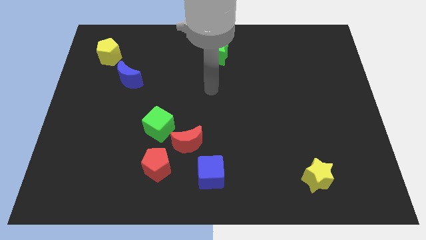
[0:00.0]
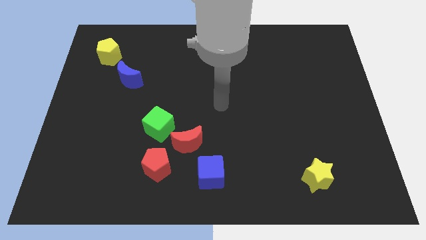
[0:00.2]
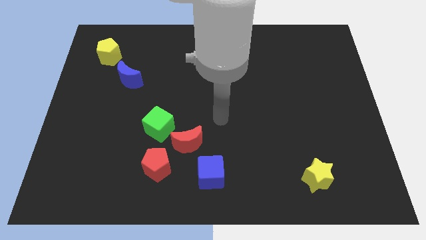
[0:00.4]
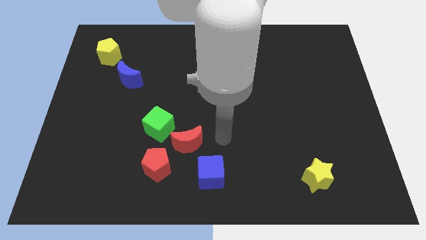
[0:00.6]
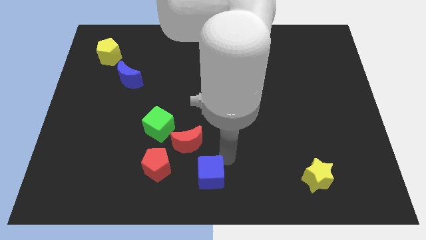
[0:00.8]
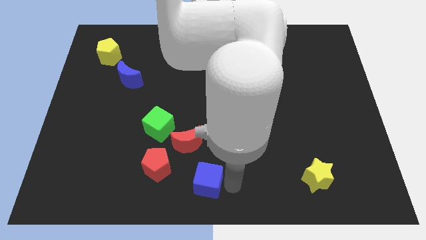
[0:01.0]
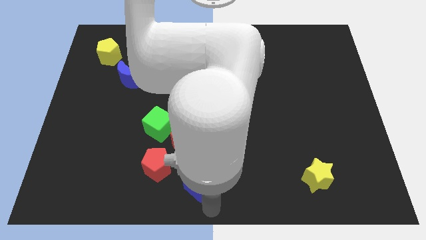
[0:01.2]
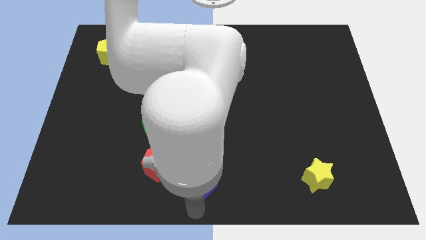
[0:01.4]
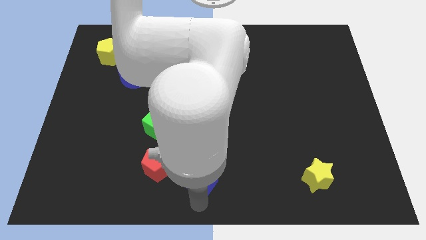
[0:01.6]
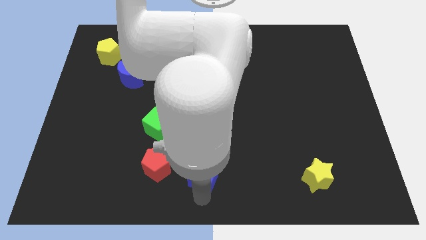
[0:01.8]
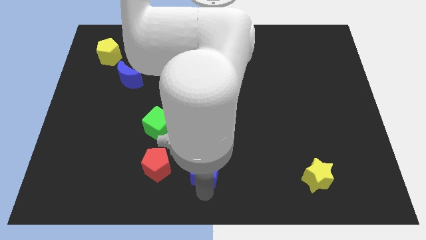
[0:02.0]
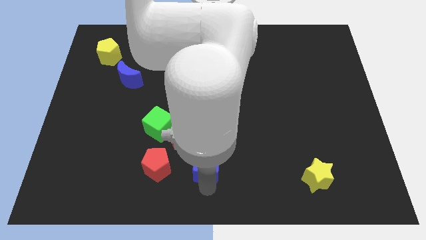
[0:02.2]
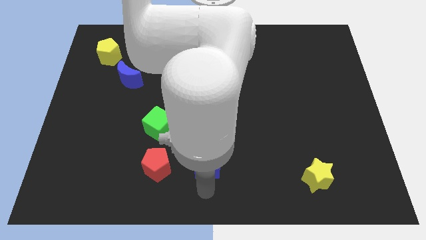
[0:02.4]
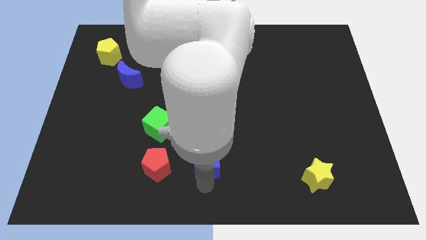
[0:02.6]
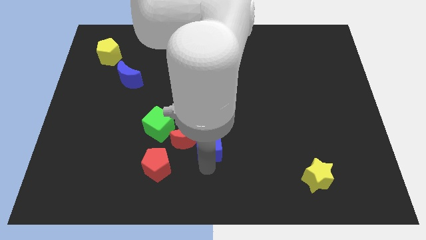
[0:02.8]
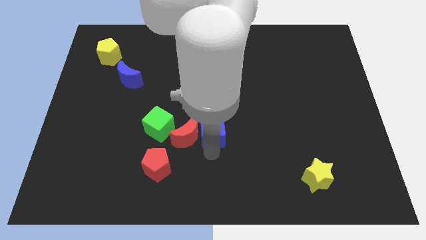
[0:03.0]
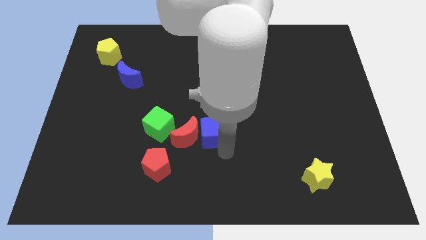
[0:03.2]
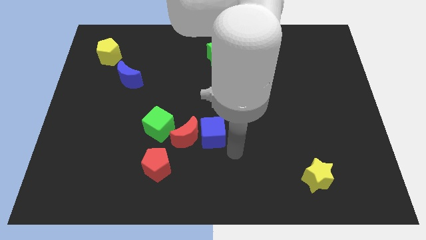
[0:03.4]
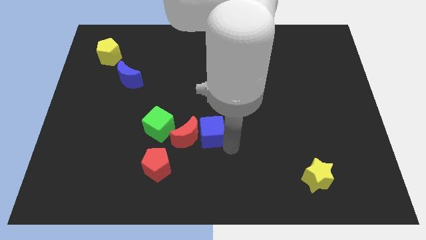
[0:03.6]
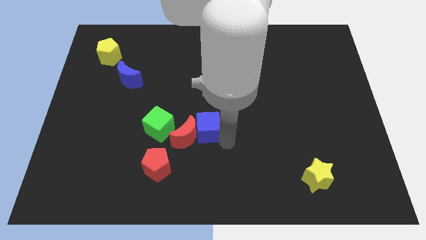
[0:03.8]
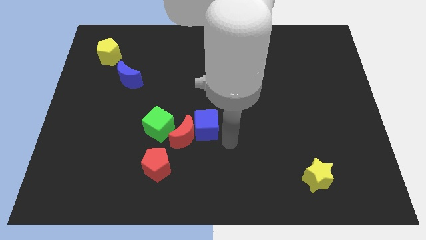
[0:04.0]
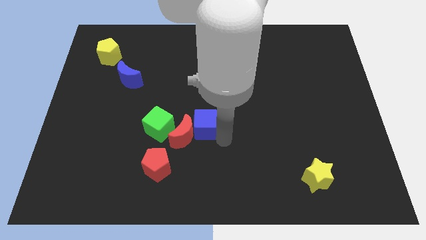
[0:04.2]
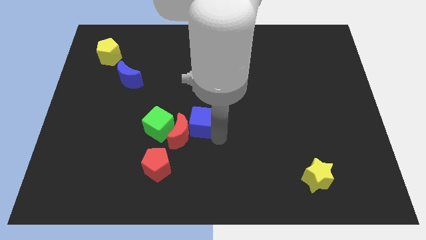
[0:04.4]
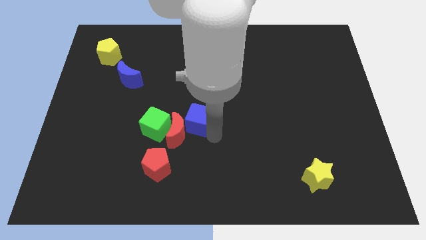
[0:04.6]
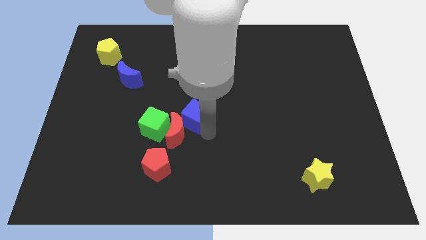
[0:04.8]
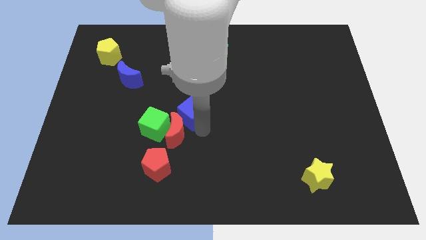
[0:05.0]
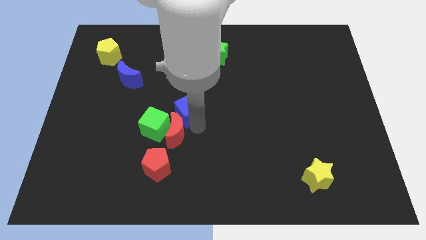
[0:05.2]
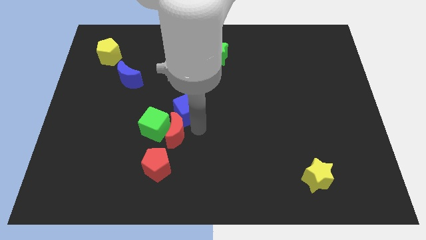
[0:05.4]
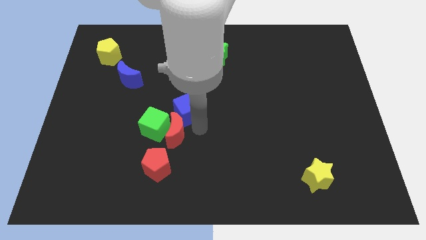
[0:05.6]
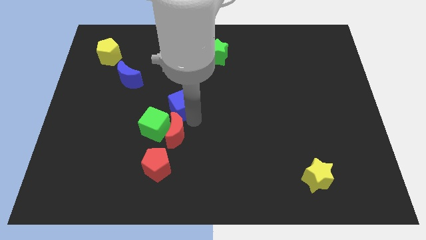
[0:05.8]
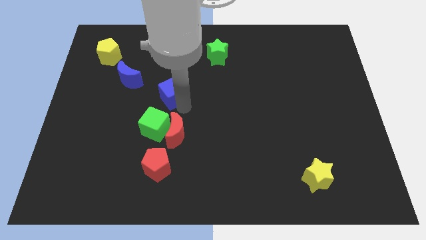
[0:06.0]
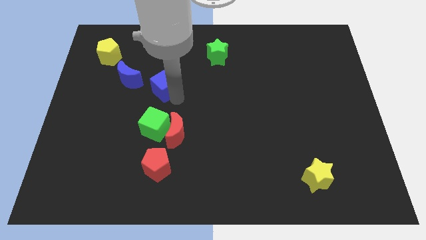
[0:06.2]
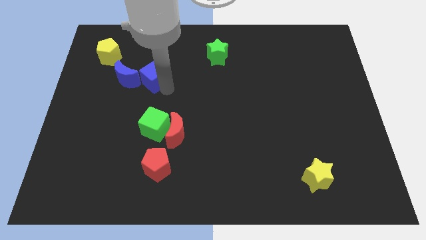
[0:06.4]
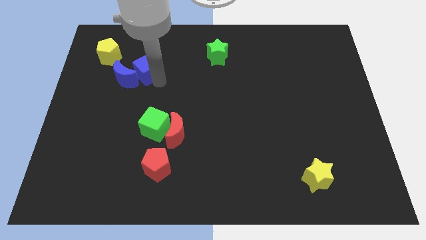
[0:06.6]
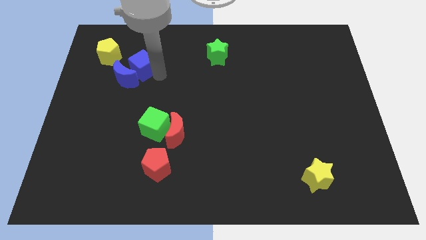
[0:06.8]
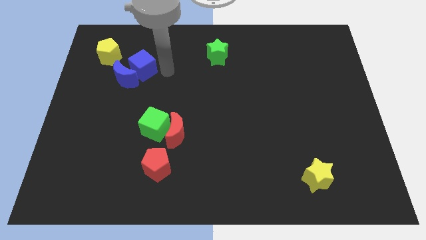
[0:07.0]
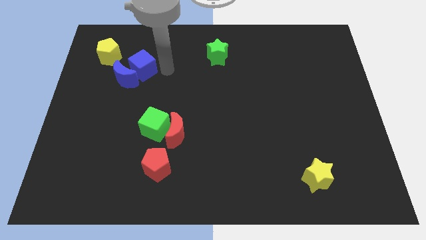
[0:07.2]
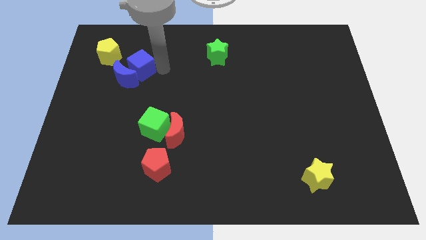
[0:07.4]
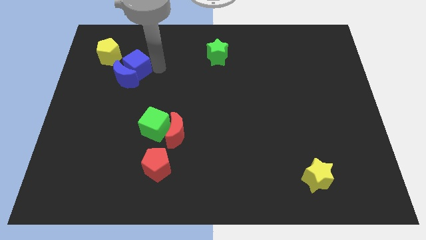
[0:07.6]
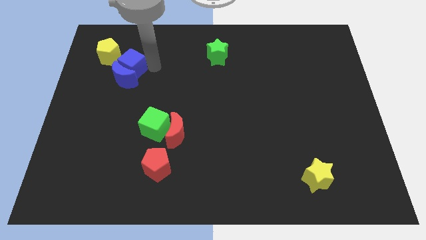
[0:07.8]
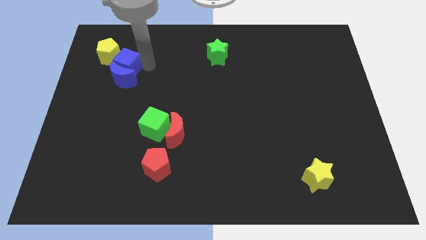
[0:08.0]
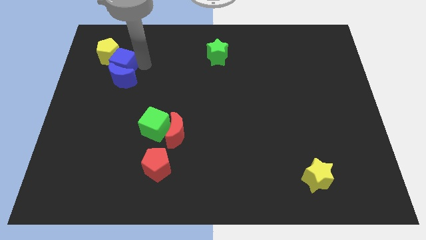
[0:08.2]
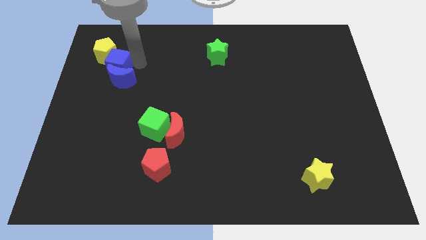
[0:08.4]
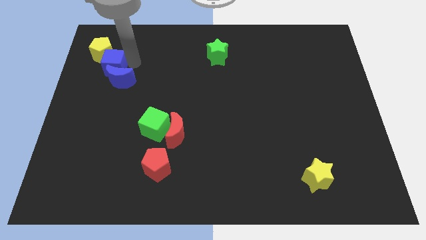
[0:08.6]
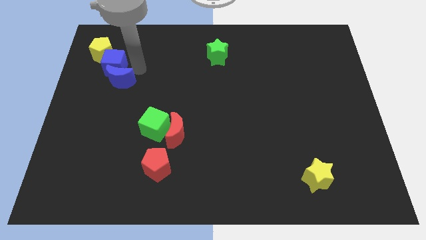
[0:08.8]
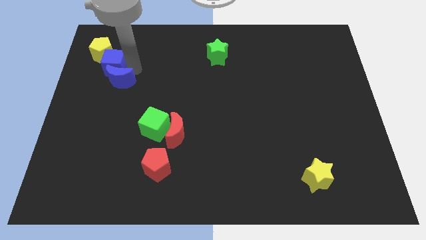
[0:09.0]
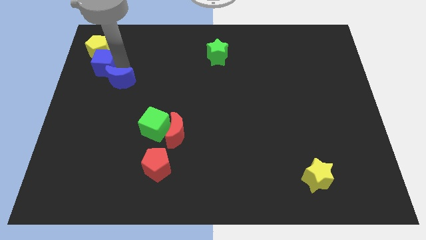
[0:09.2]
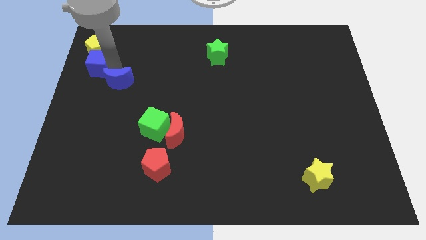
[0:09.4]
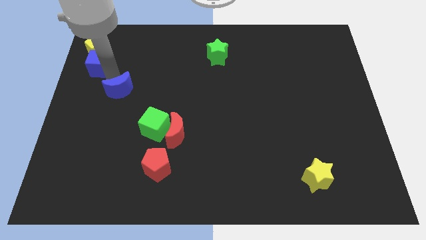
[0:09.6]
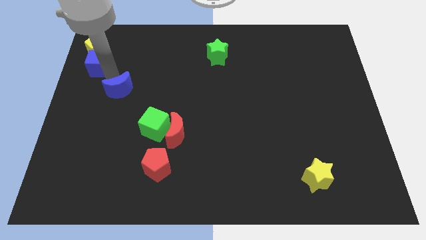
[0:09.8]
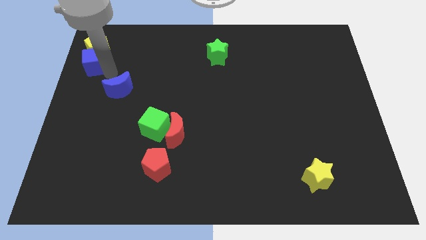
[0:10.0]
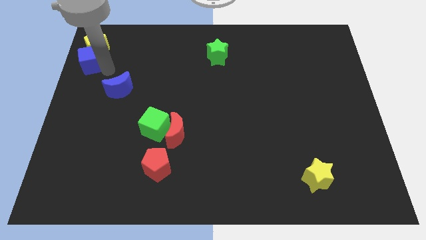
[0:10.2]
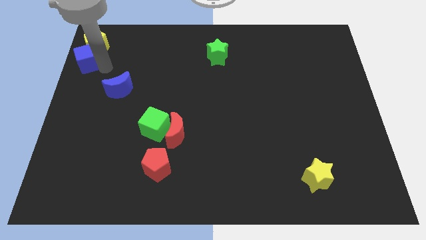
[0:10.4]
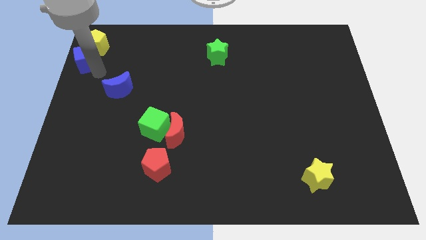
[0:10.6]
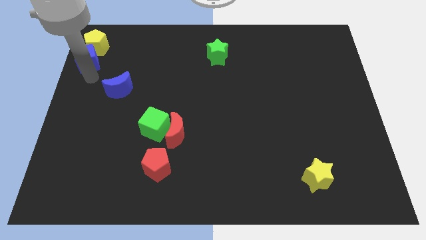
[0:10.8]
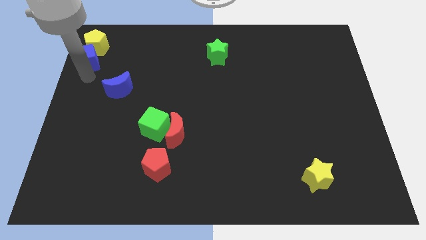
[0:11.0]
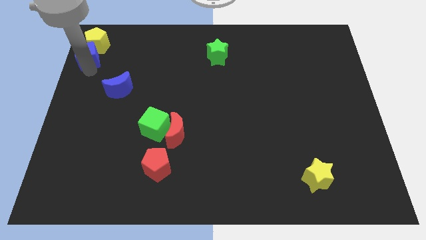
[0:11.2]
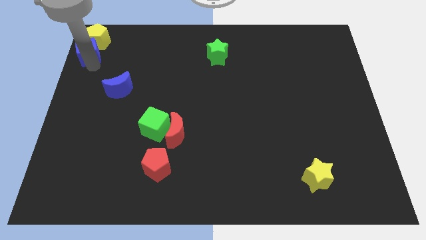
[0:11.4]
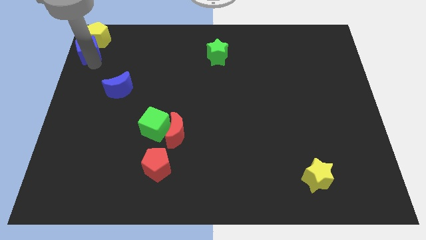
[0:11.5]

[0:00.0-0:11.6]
put the blue cube to the top left of the board

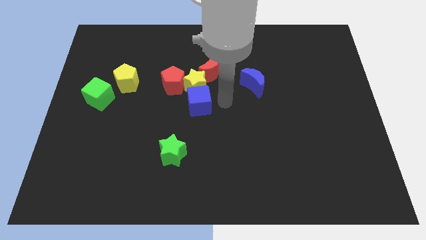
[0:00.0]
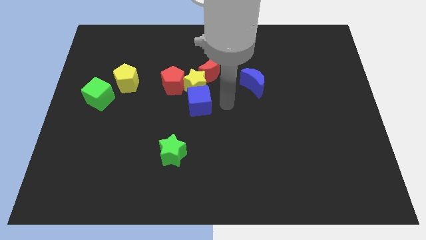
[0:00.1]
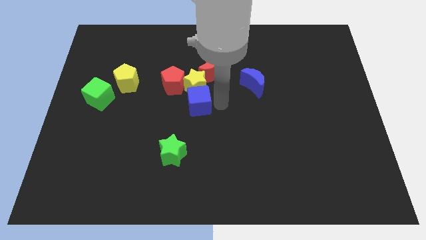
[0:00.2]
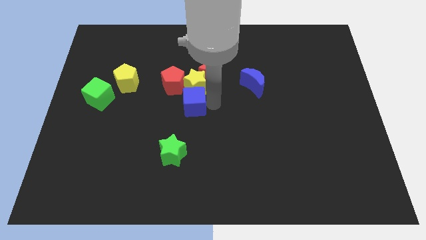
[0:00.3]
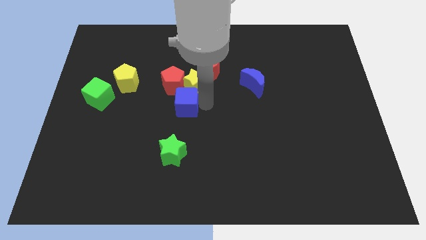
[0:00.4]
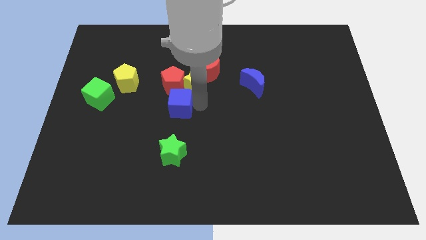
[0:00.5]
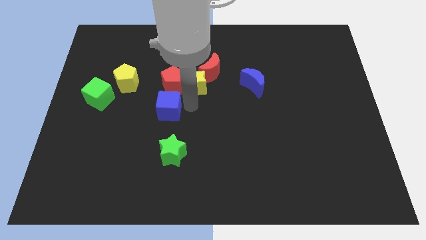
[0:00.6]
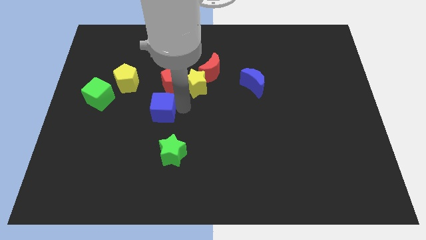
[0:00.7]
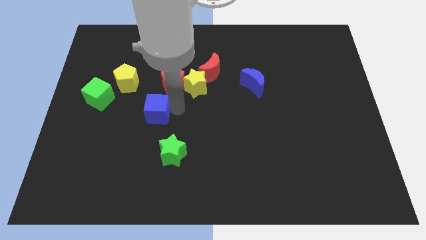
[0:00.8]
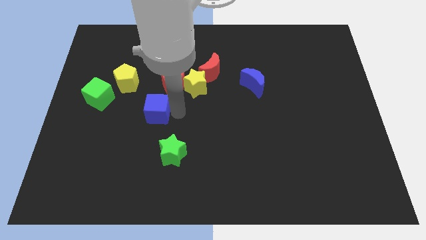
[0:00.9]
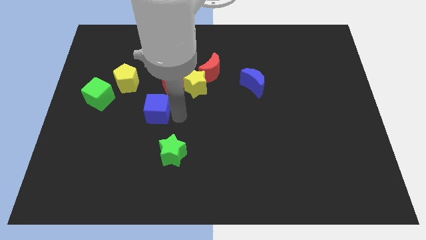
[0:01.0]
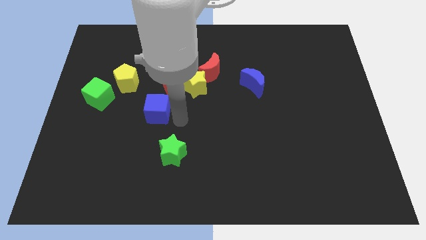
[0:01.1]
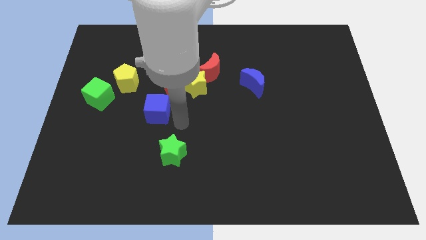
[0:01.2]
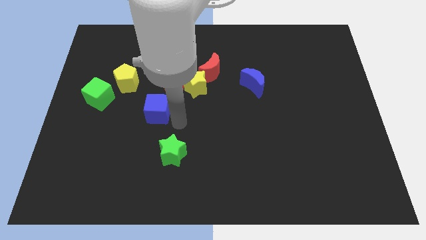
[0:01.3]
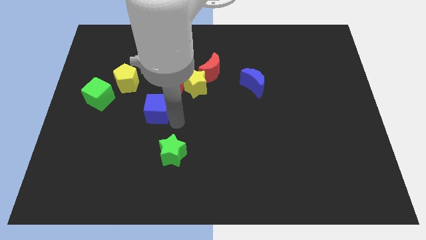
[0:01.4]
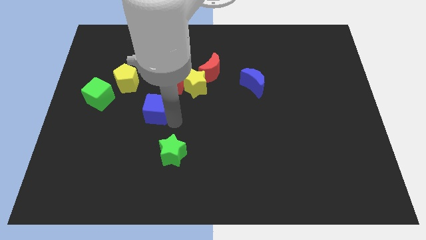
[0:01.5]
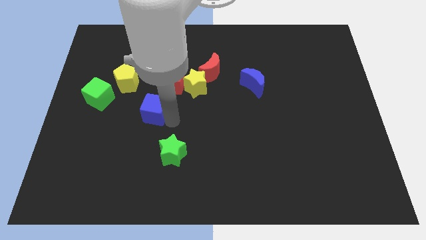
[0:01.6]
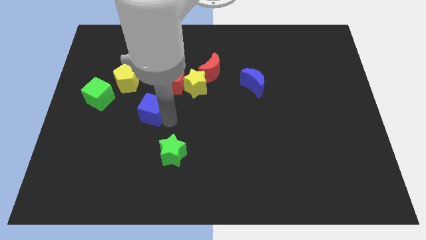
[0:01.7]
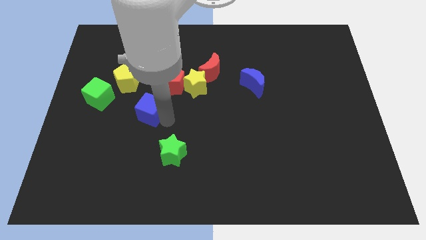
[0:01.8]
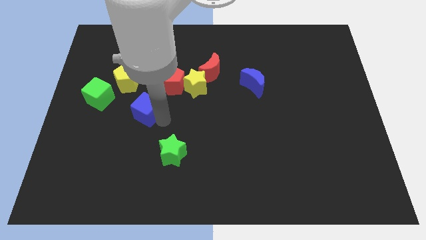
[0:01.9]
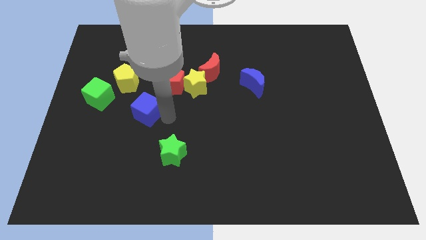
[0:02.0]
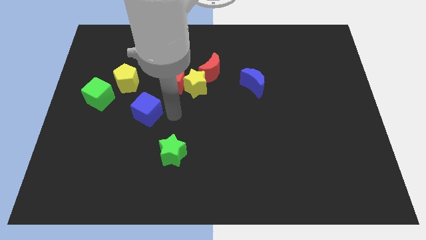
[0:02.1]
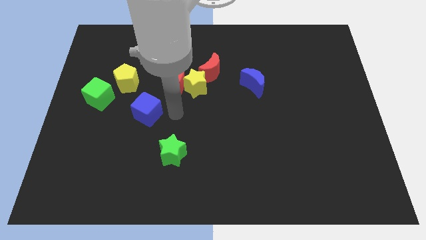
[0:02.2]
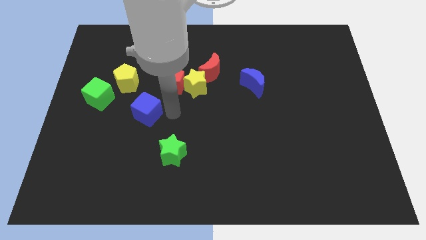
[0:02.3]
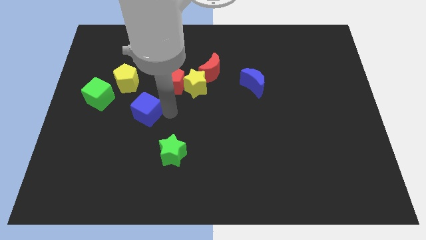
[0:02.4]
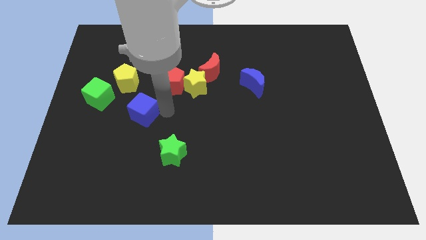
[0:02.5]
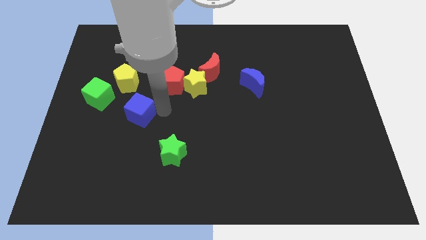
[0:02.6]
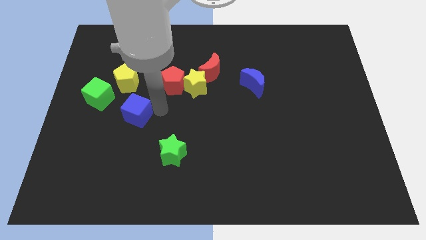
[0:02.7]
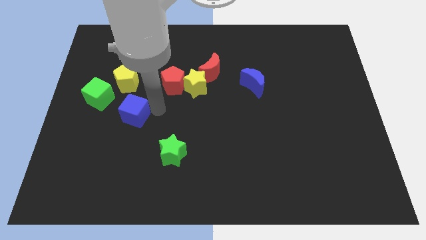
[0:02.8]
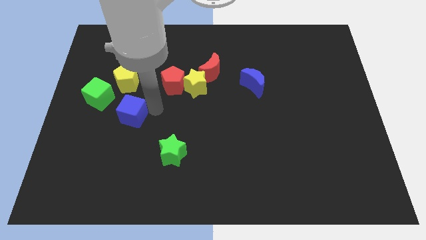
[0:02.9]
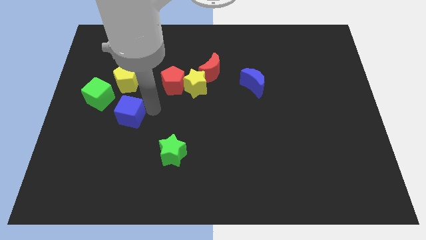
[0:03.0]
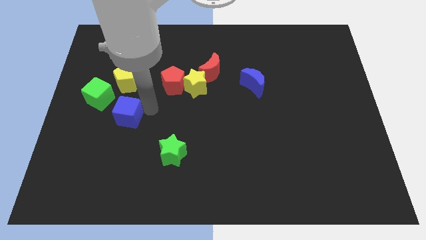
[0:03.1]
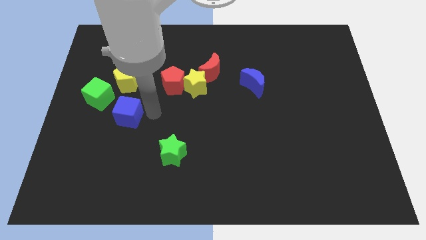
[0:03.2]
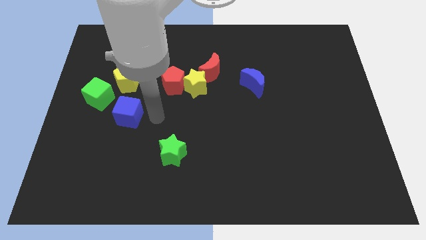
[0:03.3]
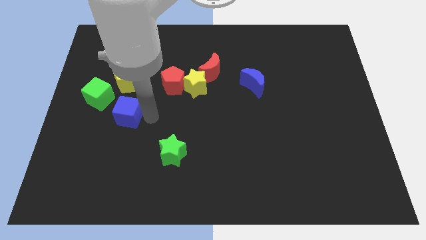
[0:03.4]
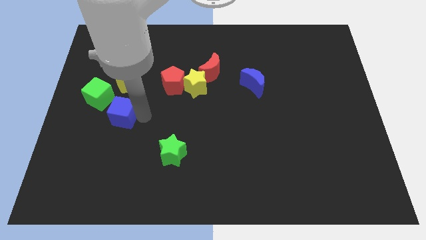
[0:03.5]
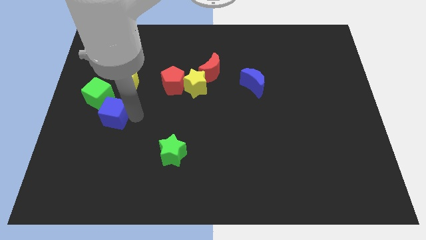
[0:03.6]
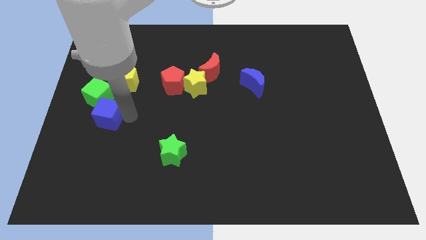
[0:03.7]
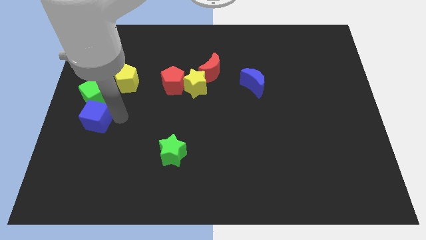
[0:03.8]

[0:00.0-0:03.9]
put the blue cube to the left side of the board
